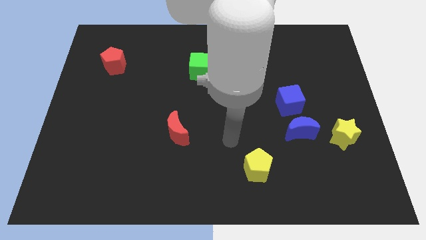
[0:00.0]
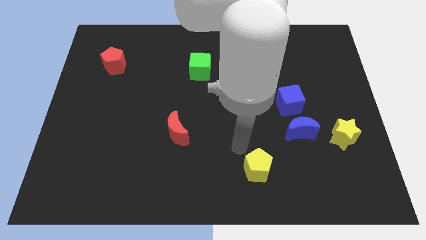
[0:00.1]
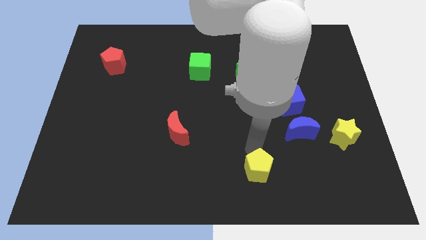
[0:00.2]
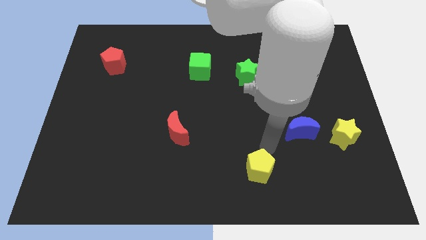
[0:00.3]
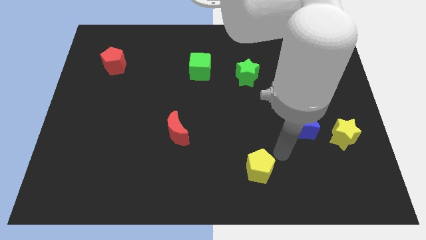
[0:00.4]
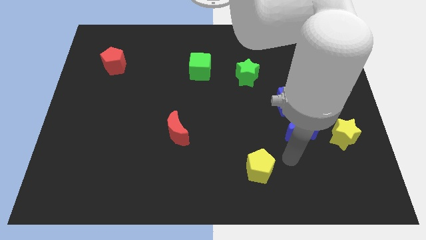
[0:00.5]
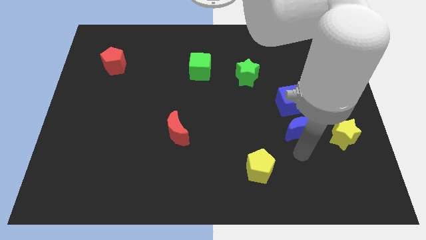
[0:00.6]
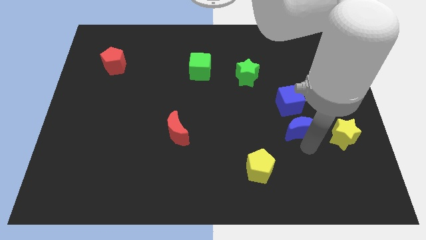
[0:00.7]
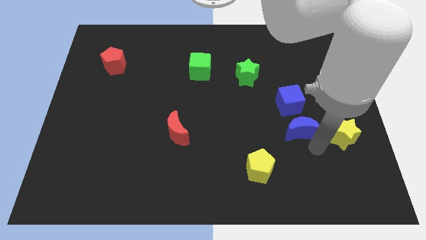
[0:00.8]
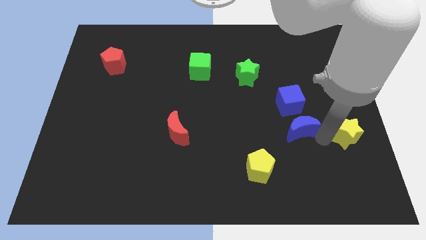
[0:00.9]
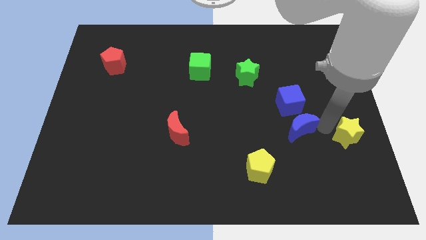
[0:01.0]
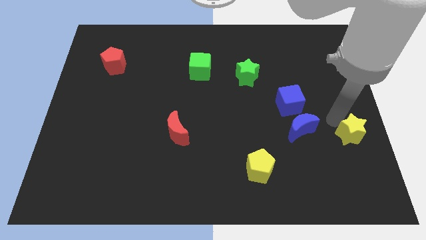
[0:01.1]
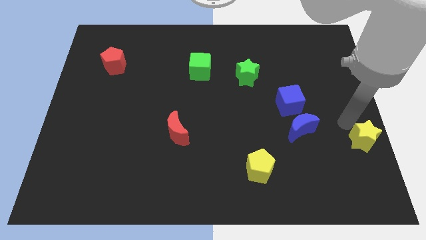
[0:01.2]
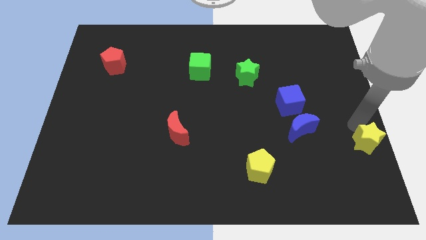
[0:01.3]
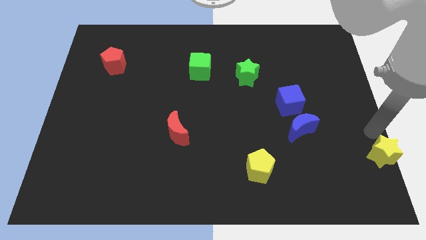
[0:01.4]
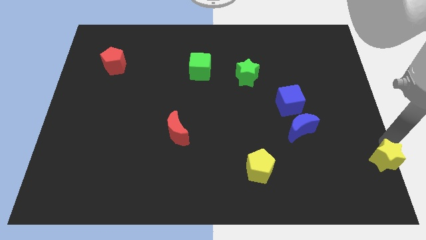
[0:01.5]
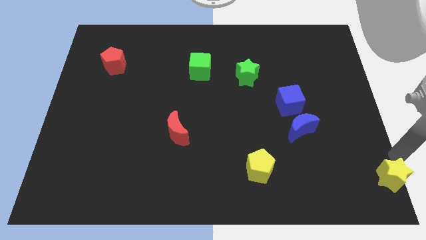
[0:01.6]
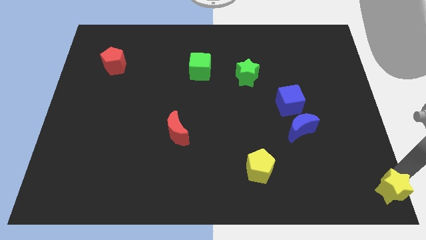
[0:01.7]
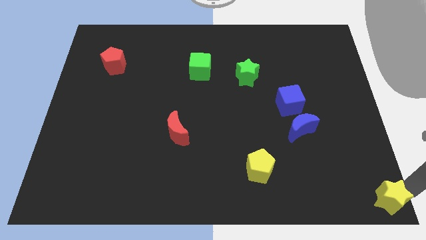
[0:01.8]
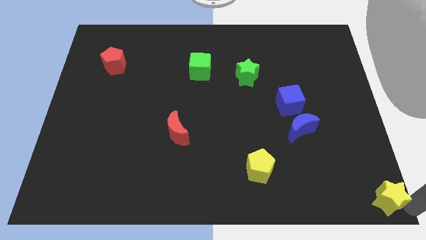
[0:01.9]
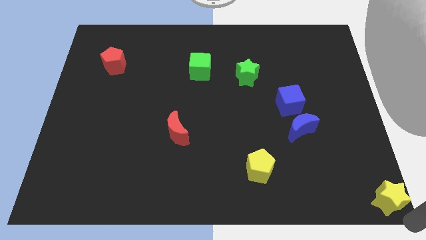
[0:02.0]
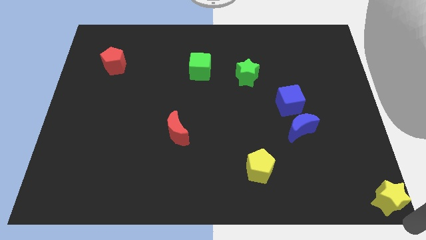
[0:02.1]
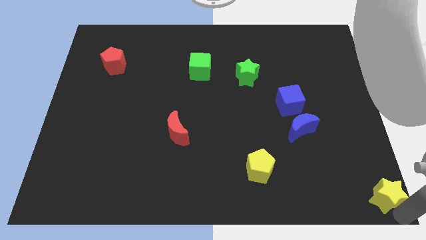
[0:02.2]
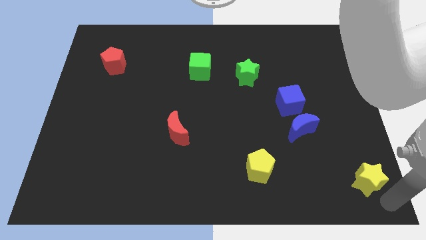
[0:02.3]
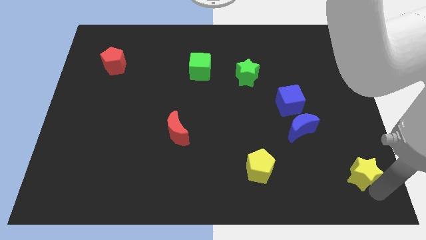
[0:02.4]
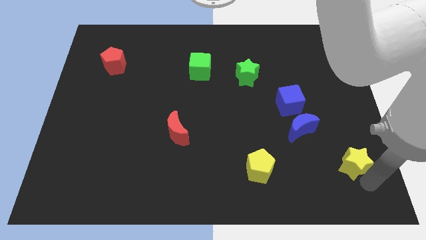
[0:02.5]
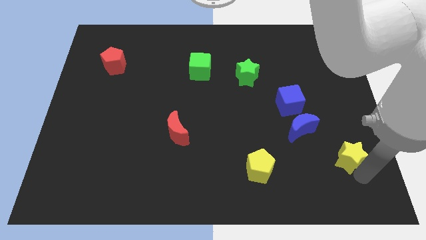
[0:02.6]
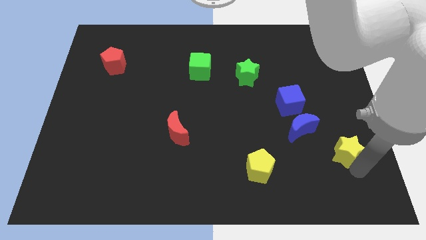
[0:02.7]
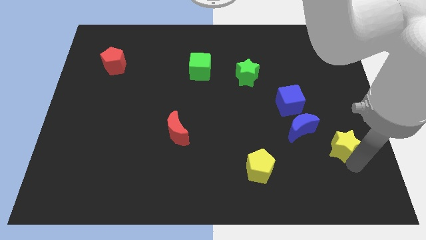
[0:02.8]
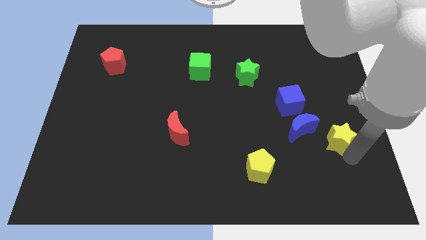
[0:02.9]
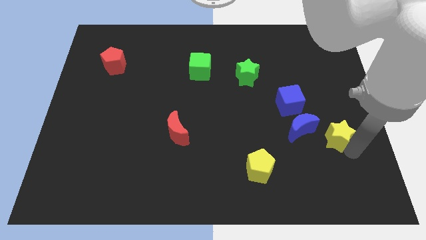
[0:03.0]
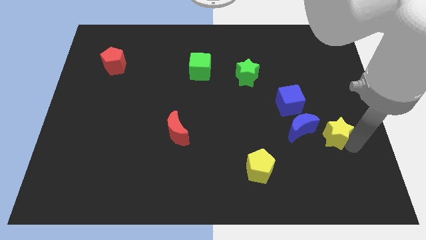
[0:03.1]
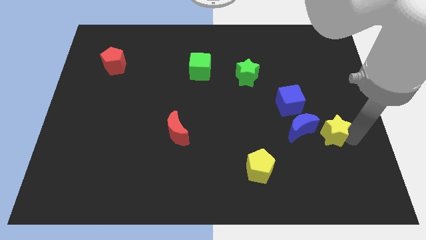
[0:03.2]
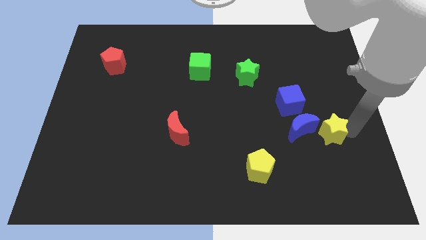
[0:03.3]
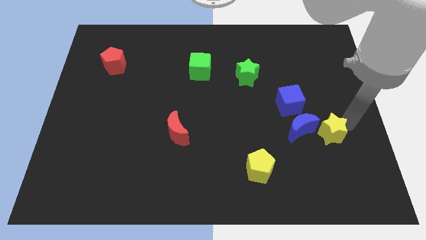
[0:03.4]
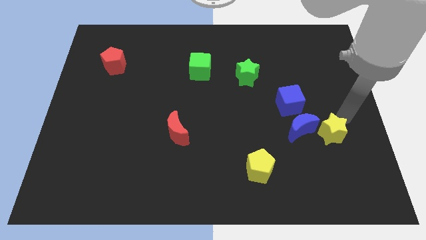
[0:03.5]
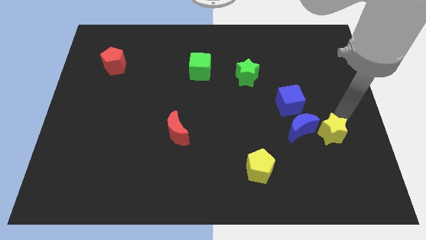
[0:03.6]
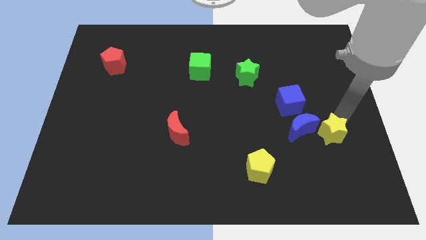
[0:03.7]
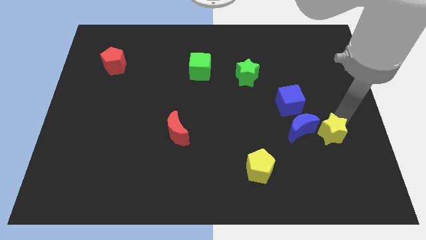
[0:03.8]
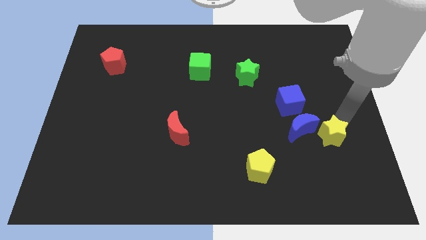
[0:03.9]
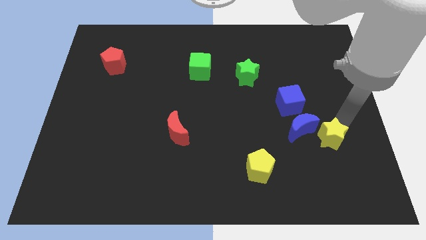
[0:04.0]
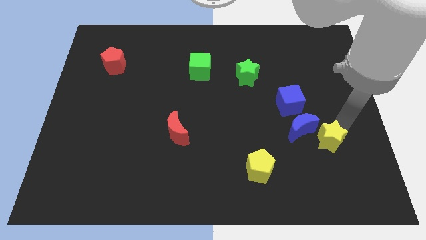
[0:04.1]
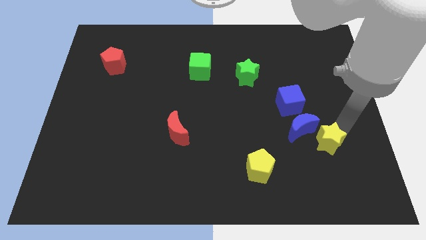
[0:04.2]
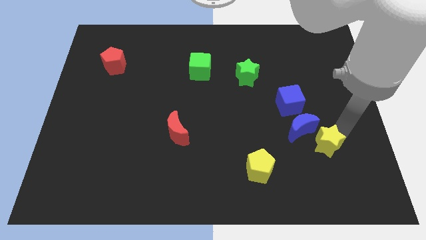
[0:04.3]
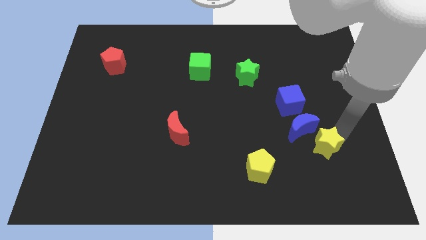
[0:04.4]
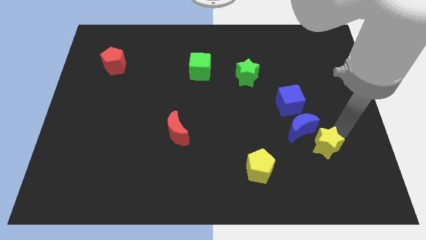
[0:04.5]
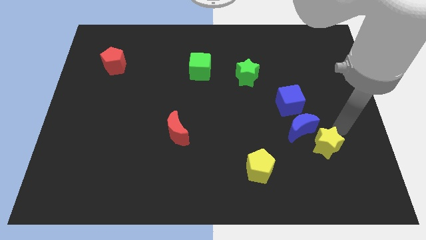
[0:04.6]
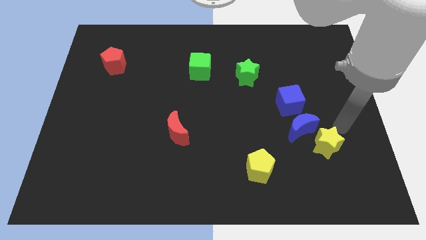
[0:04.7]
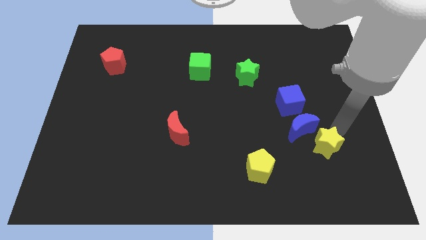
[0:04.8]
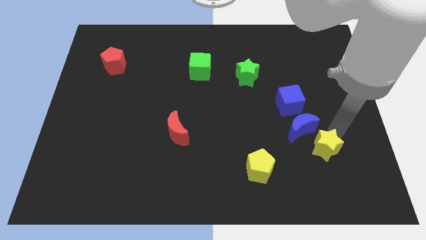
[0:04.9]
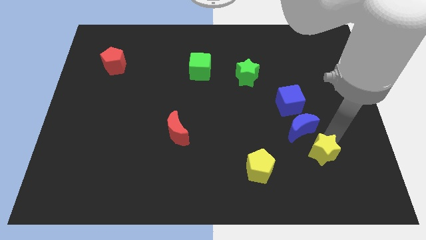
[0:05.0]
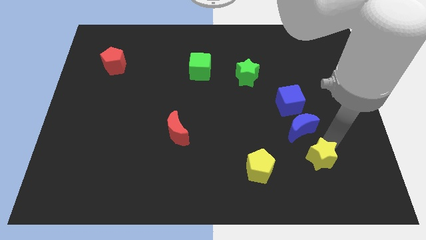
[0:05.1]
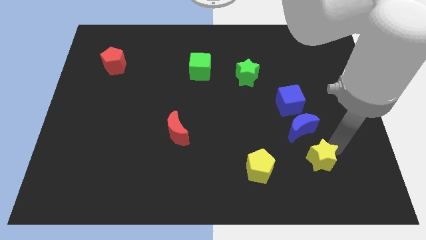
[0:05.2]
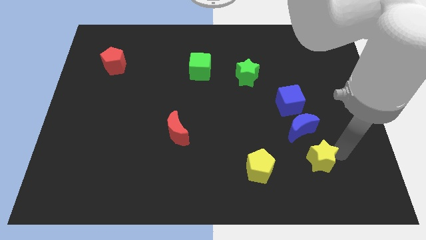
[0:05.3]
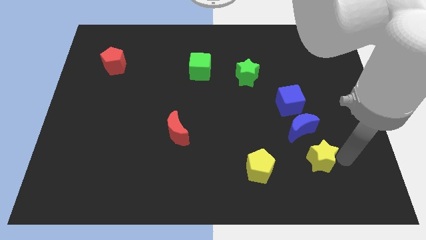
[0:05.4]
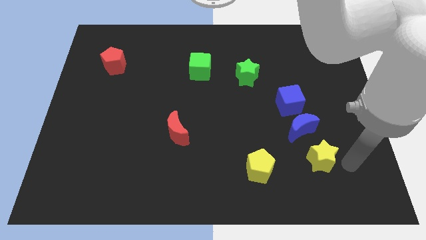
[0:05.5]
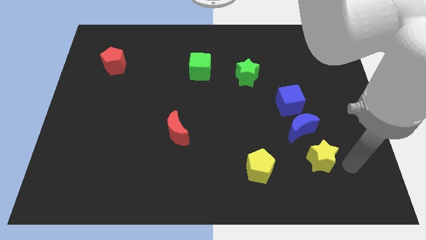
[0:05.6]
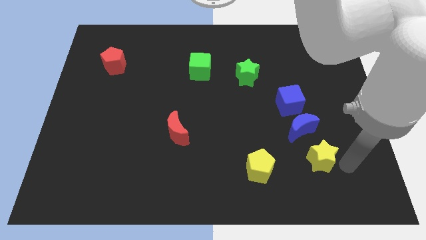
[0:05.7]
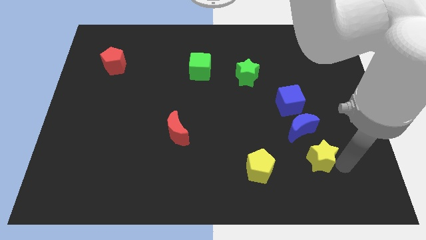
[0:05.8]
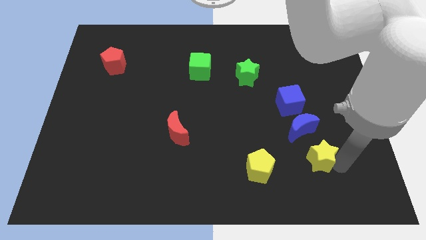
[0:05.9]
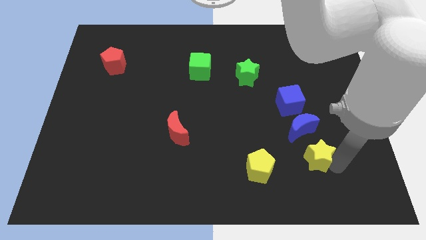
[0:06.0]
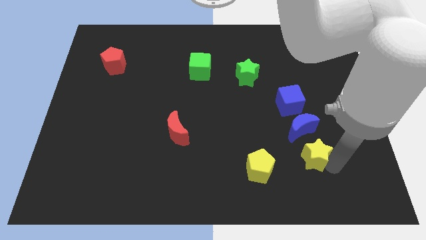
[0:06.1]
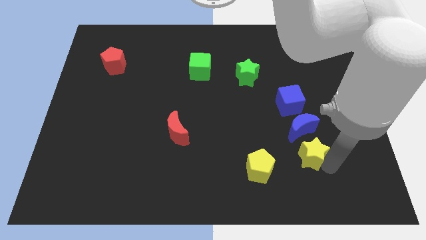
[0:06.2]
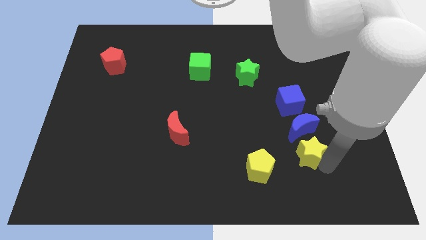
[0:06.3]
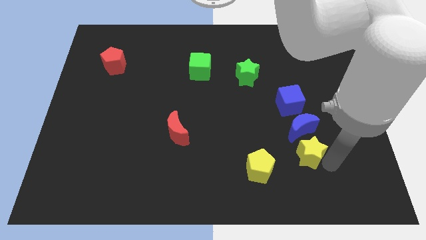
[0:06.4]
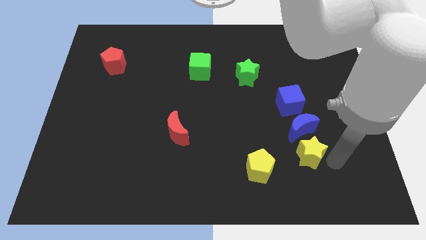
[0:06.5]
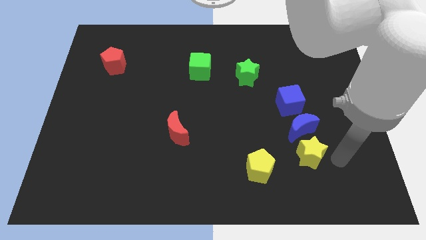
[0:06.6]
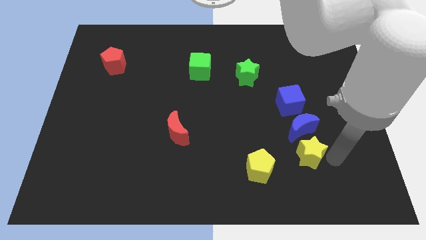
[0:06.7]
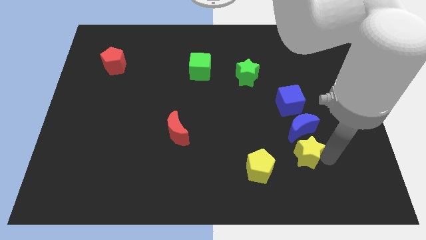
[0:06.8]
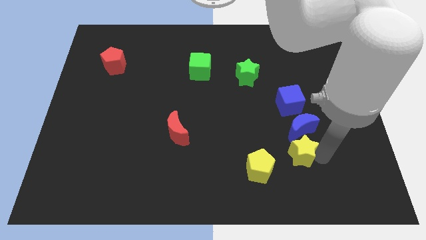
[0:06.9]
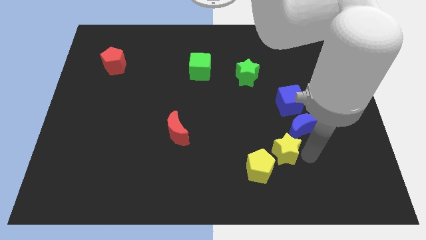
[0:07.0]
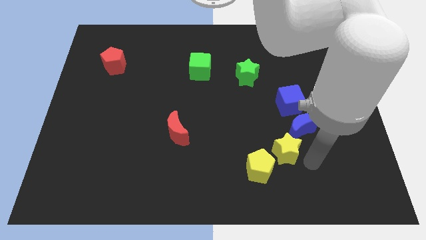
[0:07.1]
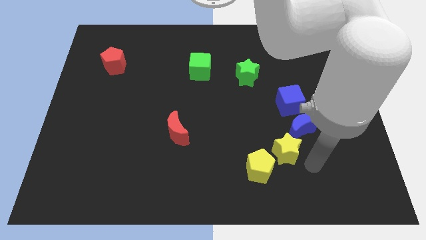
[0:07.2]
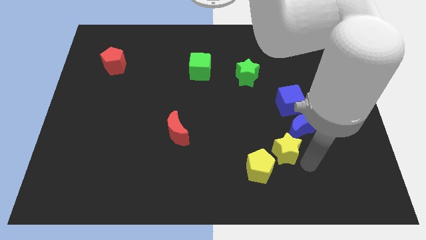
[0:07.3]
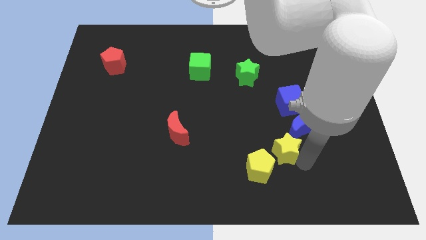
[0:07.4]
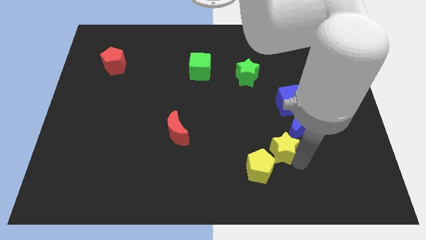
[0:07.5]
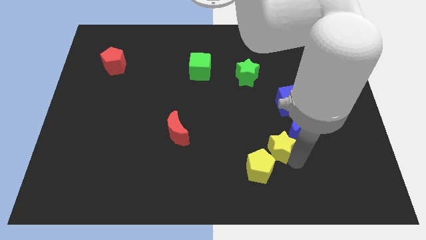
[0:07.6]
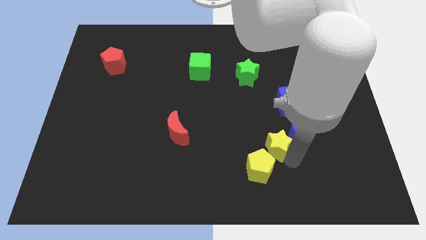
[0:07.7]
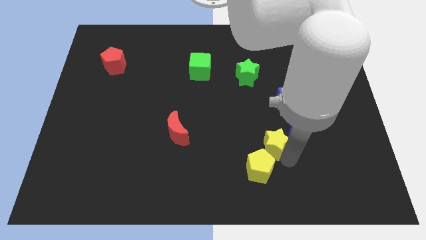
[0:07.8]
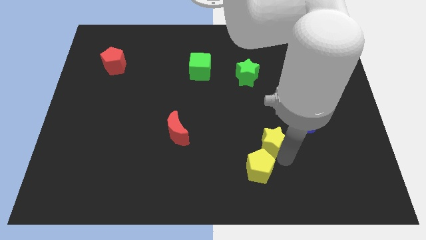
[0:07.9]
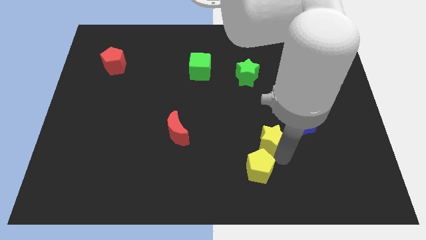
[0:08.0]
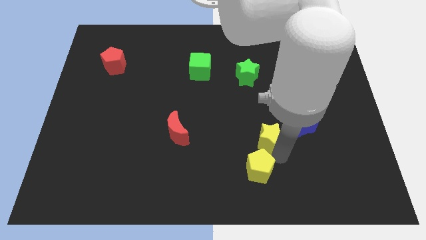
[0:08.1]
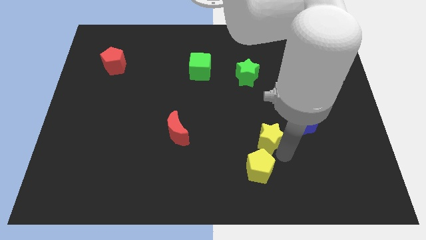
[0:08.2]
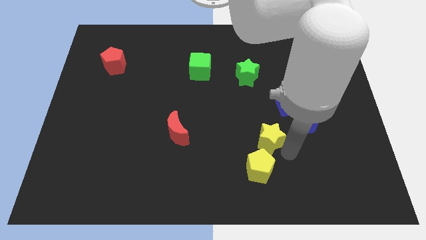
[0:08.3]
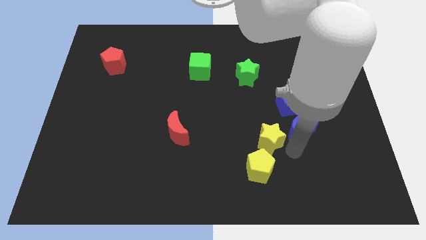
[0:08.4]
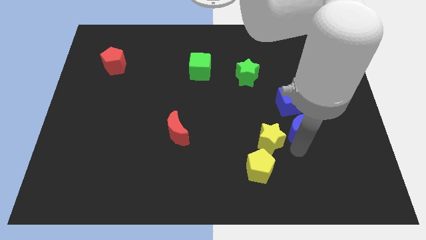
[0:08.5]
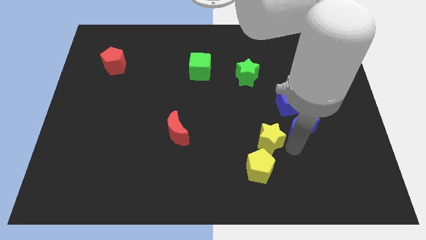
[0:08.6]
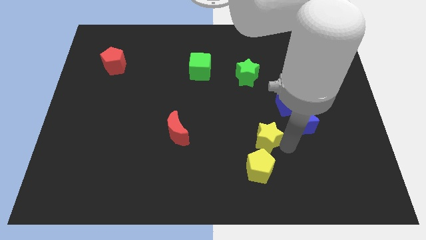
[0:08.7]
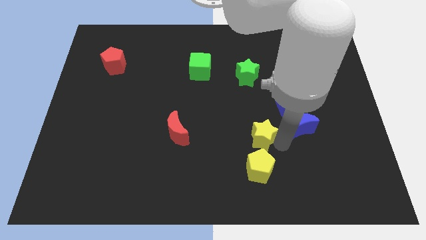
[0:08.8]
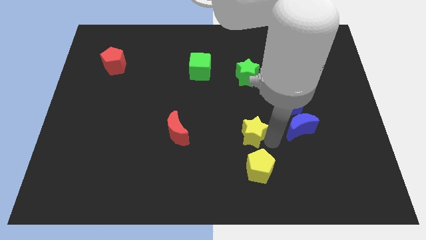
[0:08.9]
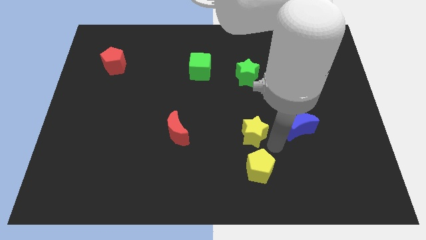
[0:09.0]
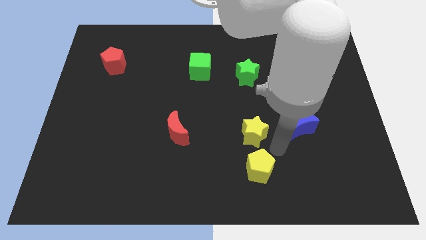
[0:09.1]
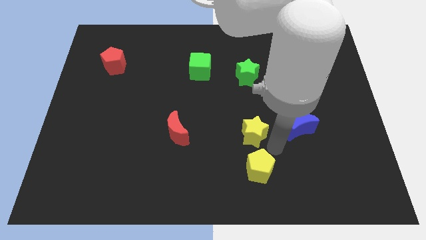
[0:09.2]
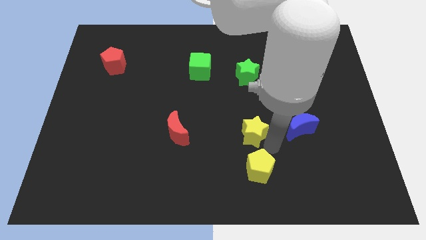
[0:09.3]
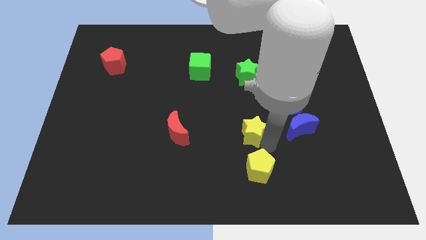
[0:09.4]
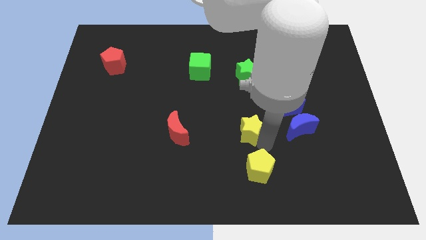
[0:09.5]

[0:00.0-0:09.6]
move the yellow star to the middle
